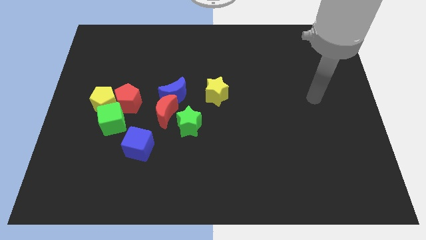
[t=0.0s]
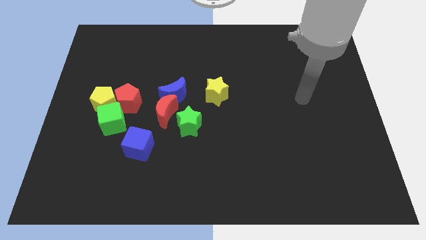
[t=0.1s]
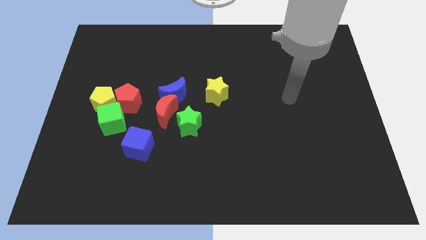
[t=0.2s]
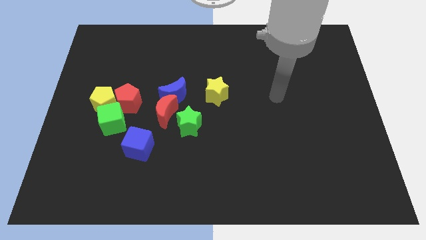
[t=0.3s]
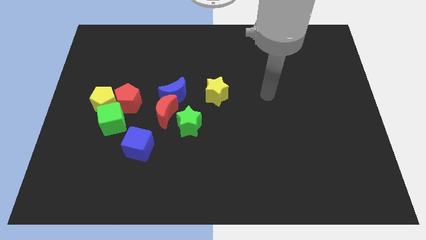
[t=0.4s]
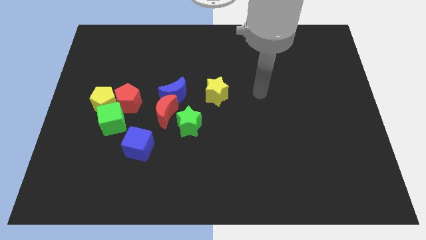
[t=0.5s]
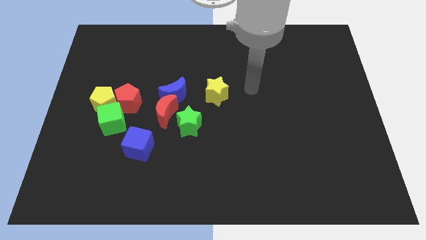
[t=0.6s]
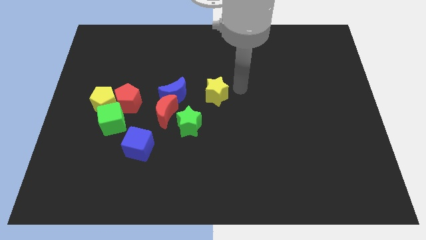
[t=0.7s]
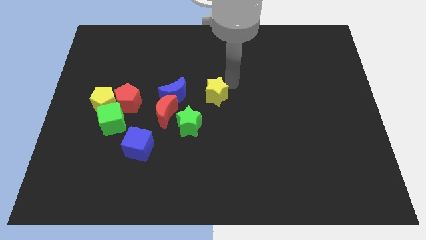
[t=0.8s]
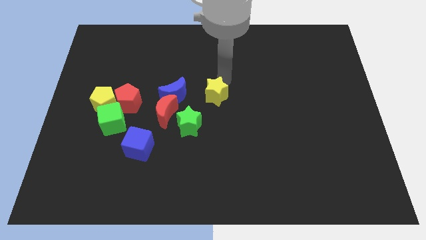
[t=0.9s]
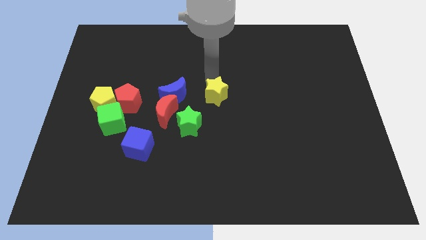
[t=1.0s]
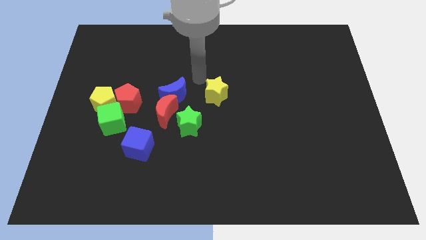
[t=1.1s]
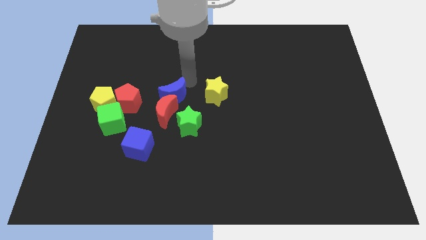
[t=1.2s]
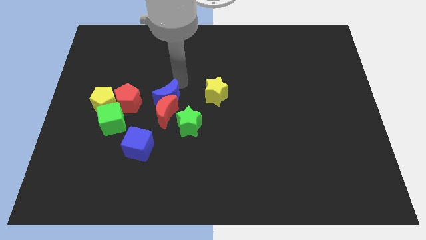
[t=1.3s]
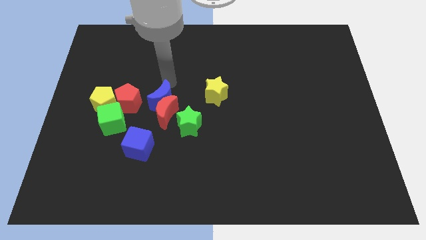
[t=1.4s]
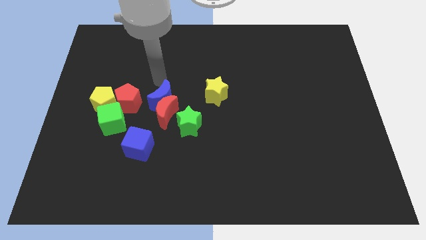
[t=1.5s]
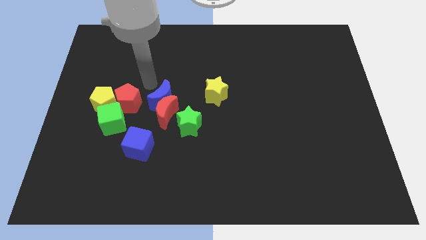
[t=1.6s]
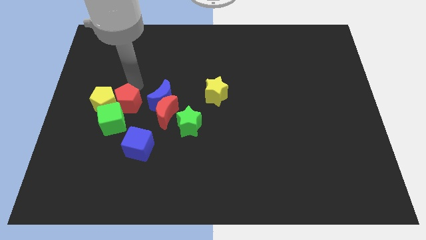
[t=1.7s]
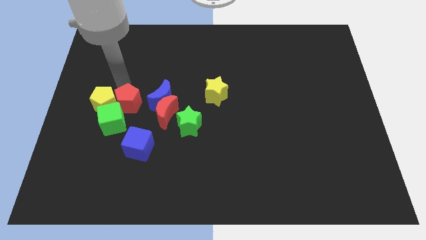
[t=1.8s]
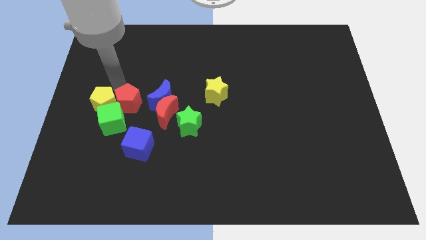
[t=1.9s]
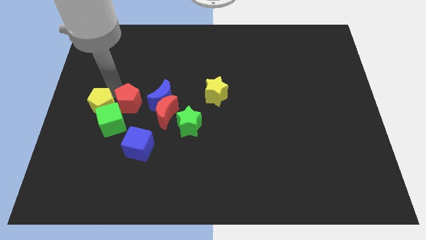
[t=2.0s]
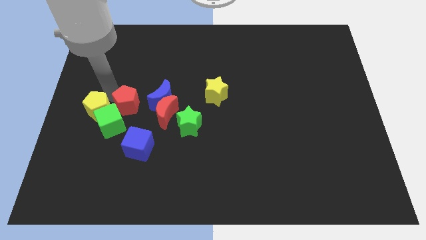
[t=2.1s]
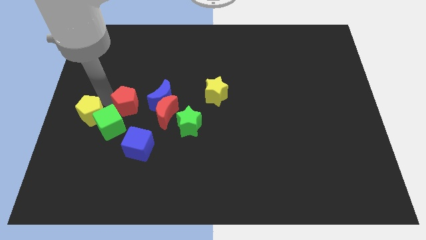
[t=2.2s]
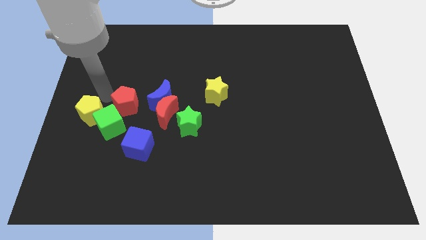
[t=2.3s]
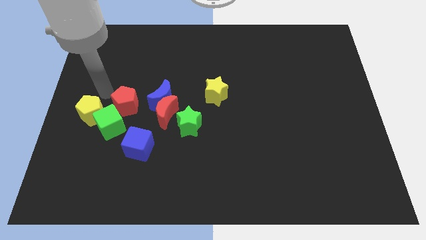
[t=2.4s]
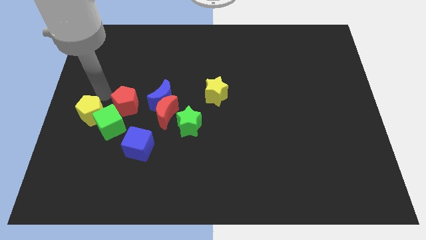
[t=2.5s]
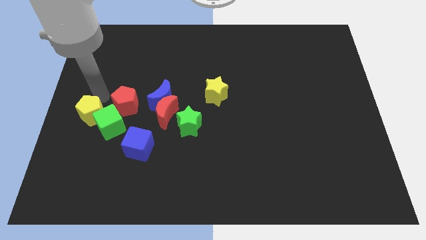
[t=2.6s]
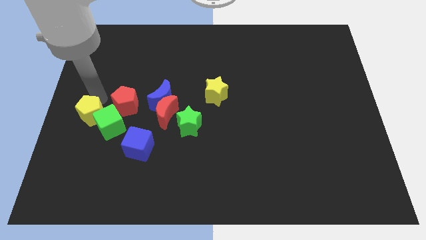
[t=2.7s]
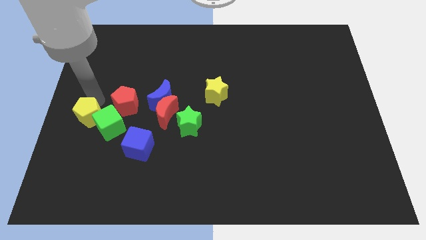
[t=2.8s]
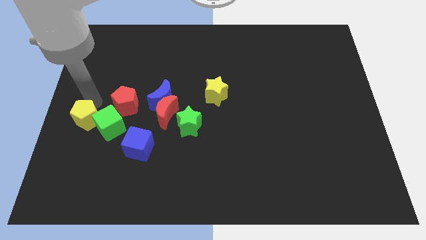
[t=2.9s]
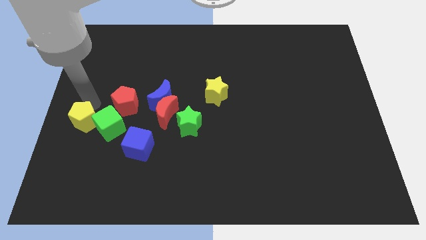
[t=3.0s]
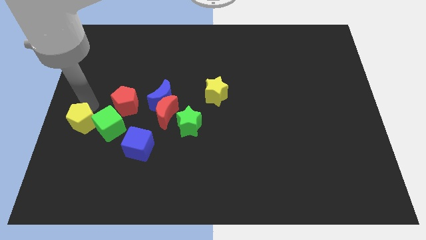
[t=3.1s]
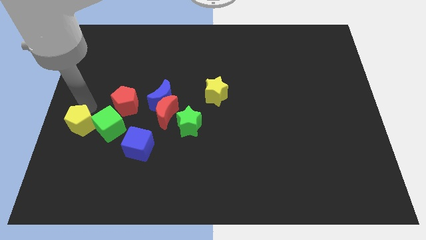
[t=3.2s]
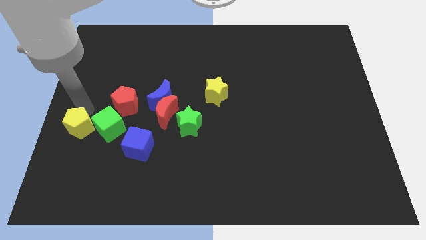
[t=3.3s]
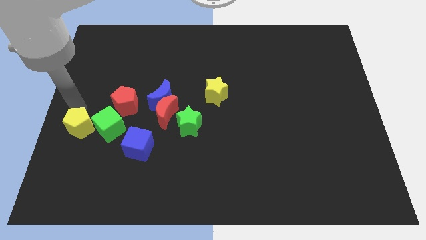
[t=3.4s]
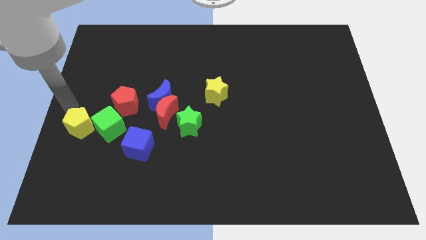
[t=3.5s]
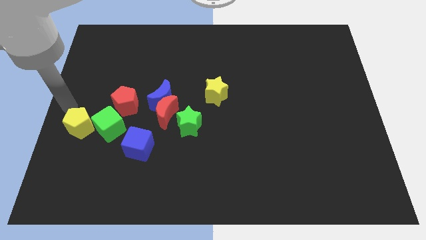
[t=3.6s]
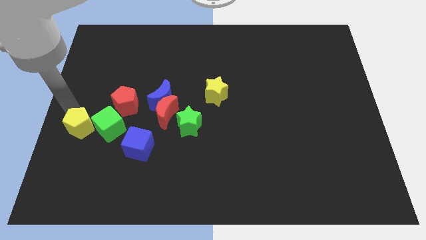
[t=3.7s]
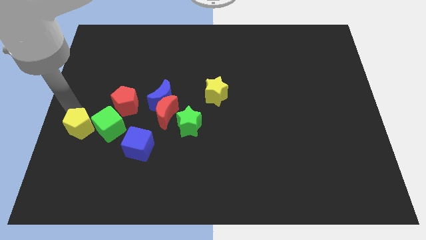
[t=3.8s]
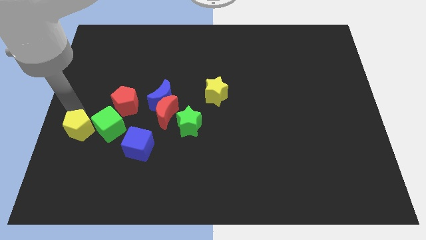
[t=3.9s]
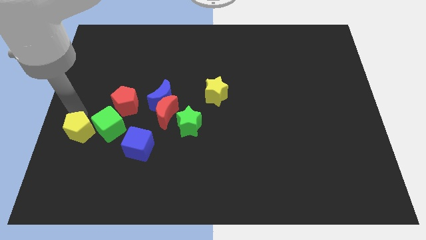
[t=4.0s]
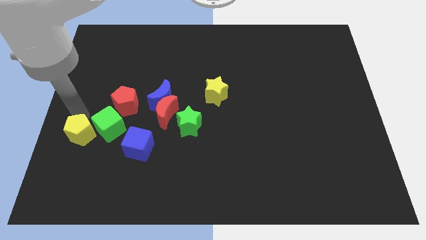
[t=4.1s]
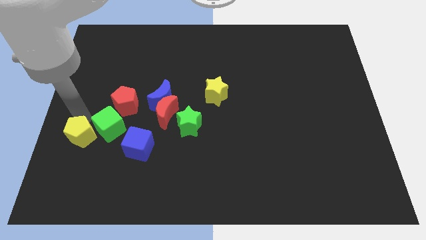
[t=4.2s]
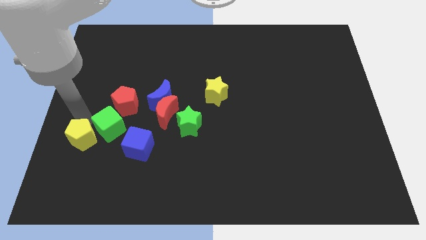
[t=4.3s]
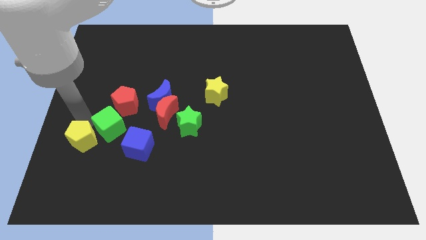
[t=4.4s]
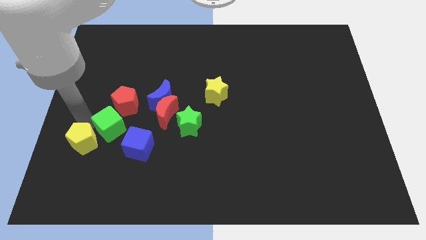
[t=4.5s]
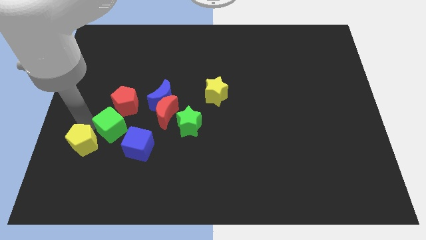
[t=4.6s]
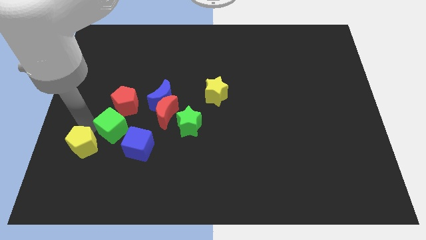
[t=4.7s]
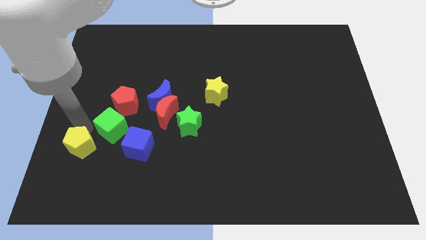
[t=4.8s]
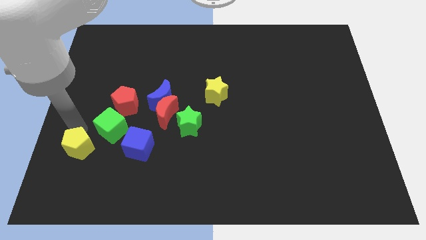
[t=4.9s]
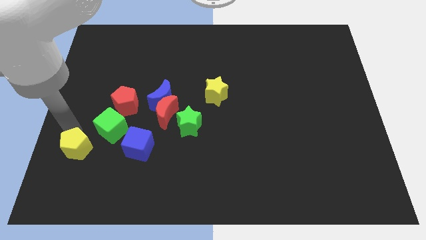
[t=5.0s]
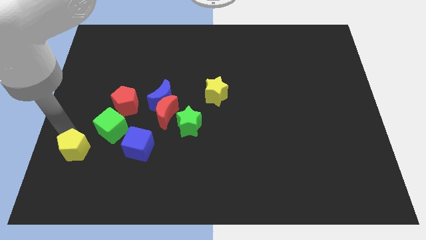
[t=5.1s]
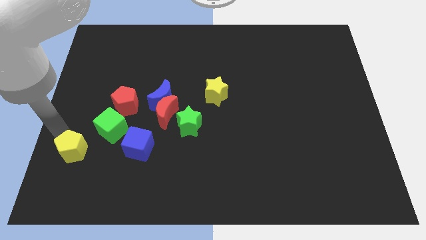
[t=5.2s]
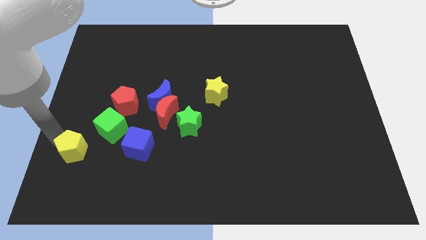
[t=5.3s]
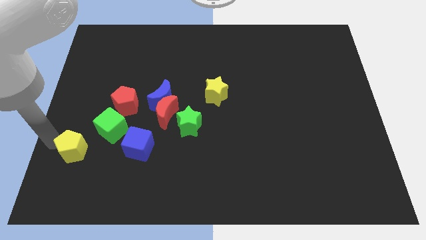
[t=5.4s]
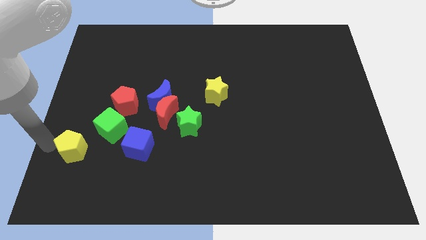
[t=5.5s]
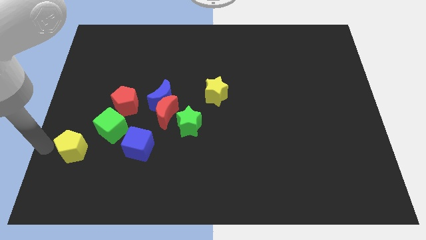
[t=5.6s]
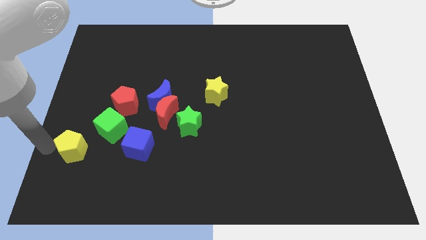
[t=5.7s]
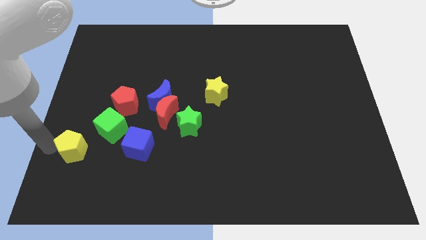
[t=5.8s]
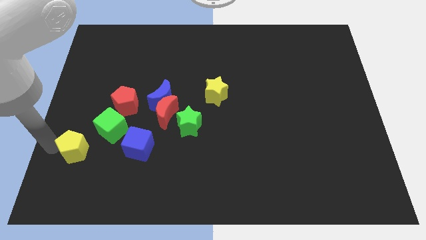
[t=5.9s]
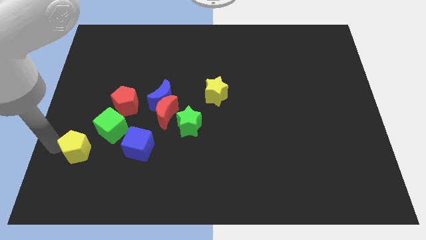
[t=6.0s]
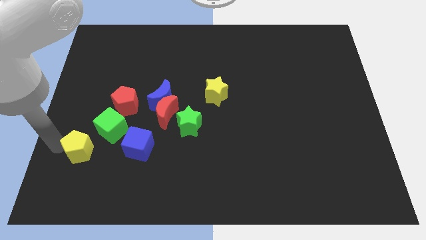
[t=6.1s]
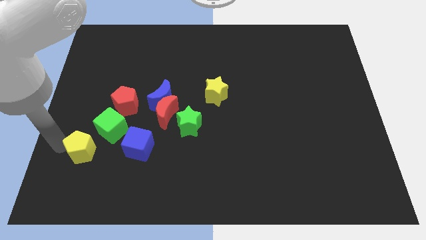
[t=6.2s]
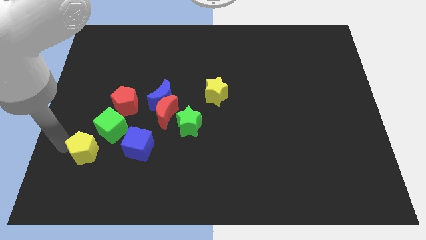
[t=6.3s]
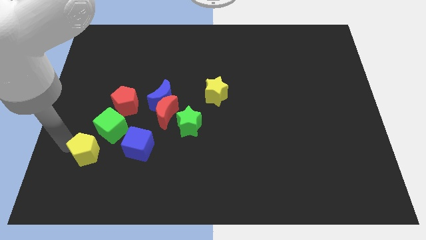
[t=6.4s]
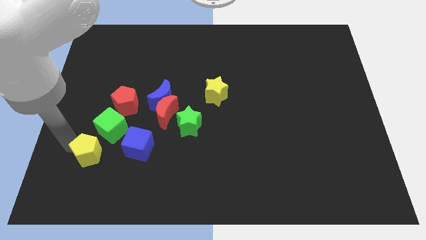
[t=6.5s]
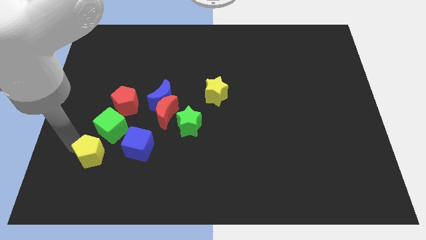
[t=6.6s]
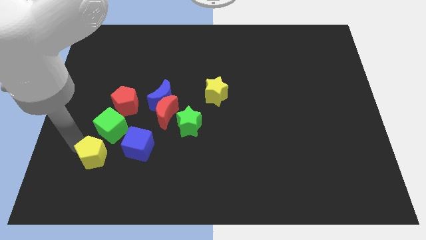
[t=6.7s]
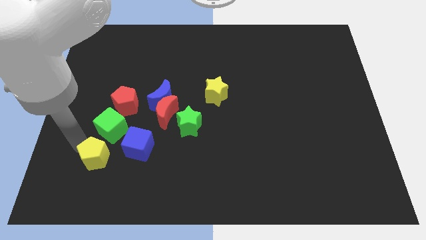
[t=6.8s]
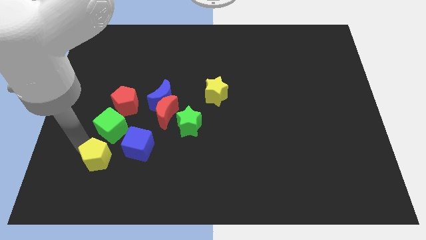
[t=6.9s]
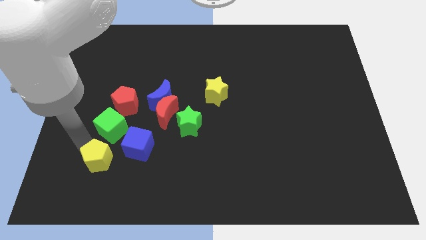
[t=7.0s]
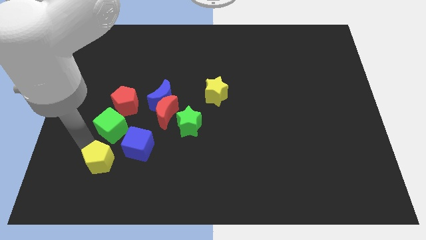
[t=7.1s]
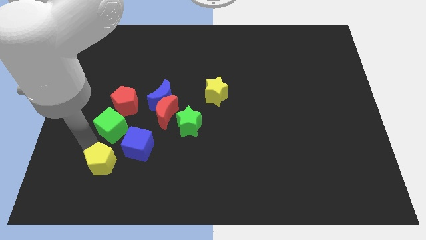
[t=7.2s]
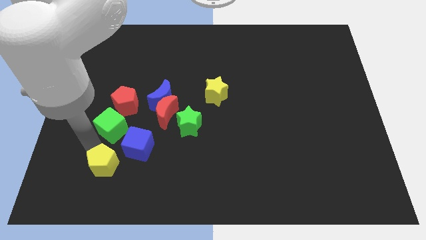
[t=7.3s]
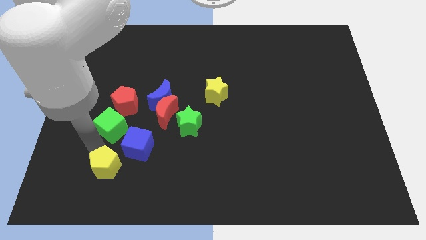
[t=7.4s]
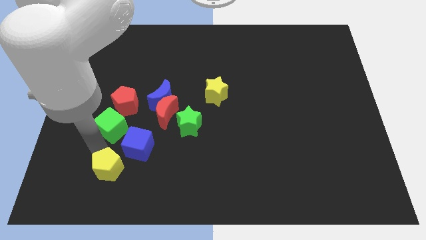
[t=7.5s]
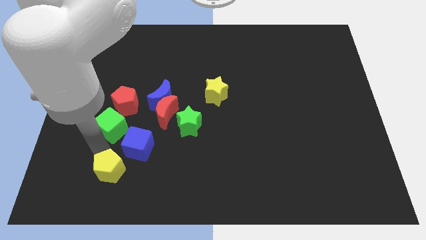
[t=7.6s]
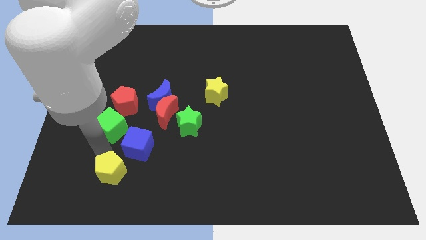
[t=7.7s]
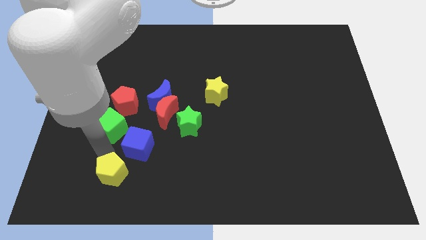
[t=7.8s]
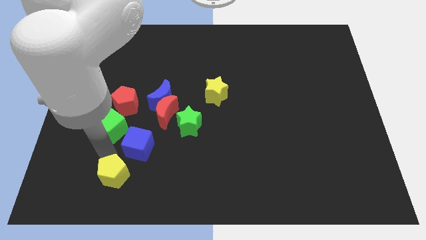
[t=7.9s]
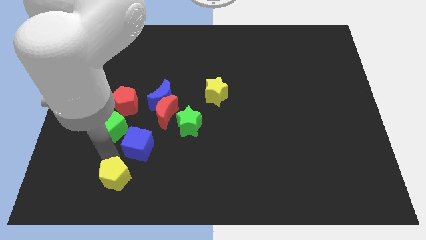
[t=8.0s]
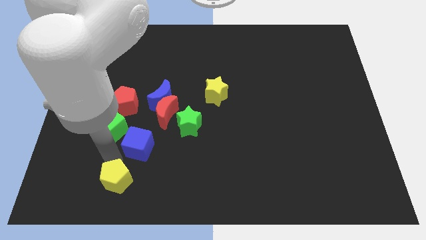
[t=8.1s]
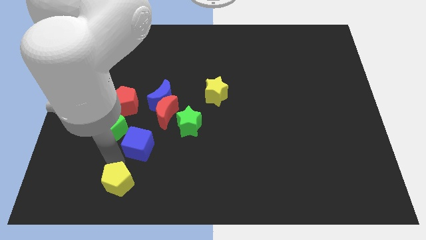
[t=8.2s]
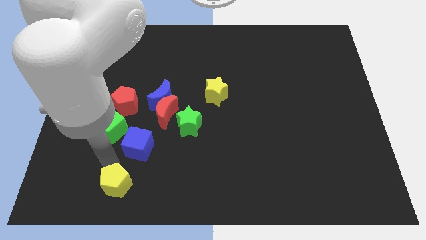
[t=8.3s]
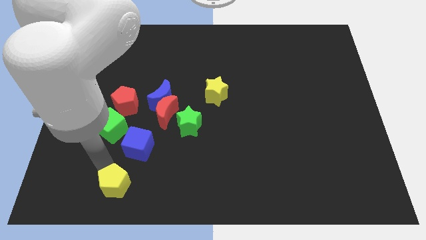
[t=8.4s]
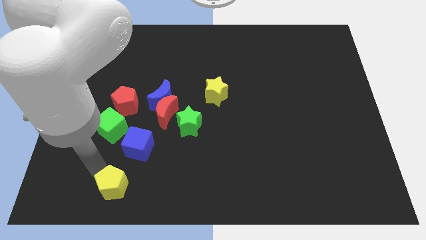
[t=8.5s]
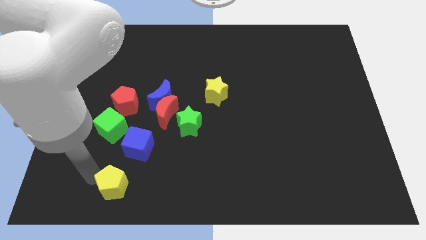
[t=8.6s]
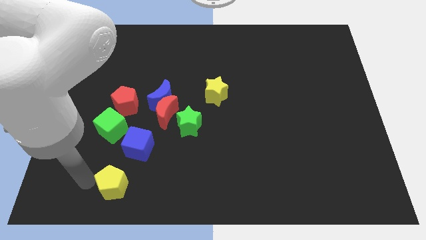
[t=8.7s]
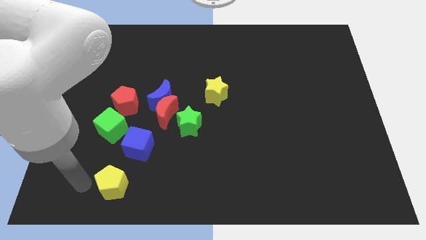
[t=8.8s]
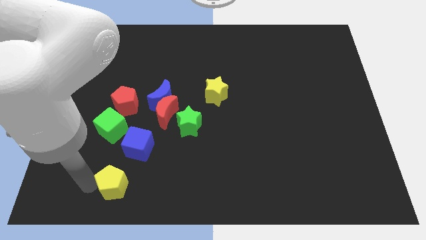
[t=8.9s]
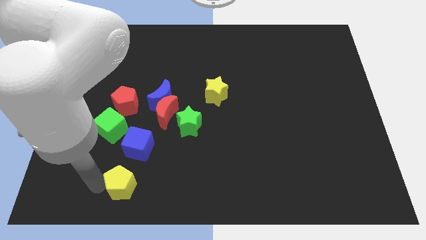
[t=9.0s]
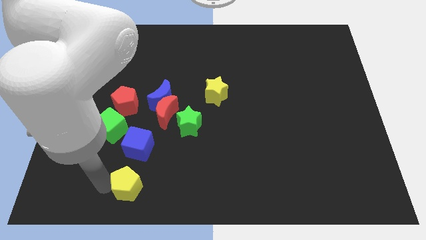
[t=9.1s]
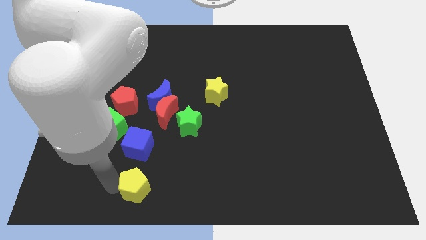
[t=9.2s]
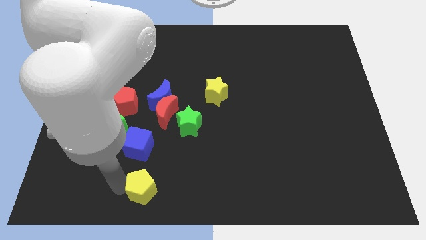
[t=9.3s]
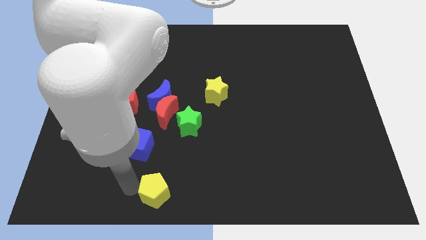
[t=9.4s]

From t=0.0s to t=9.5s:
slide the yellow pentagon to the bottom
